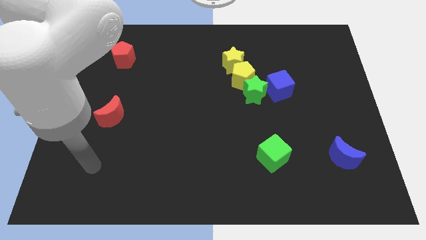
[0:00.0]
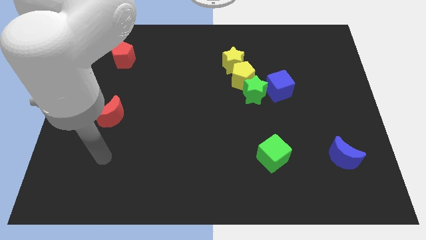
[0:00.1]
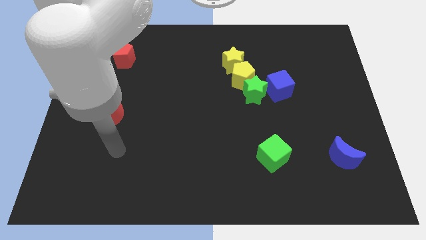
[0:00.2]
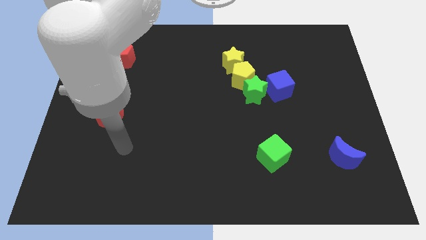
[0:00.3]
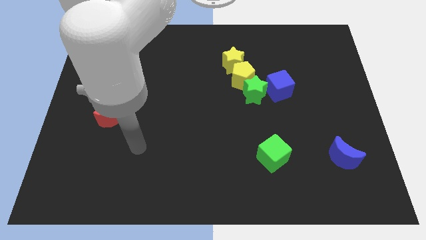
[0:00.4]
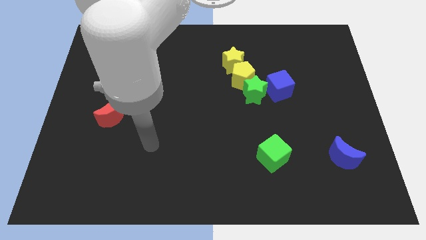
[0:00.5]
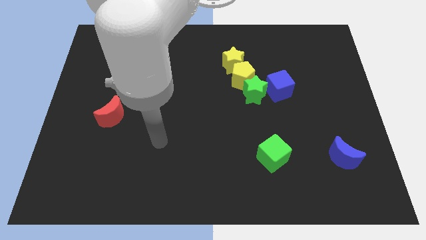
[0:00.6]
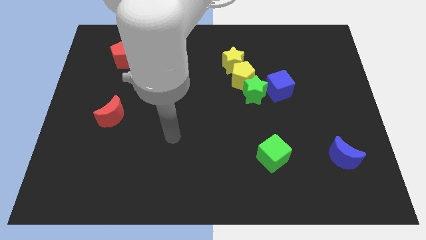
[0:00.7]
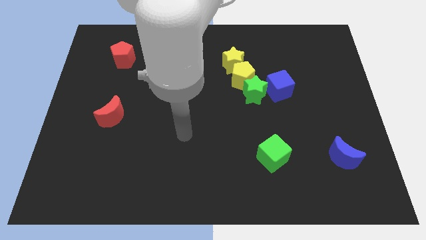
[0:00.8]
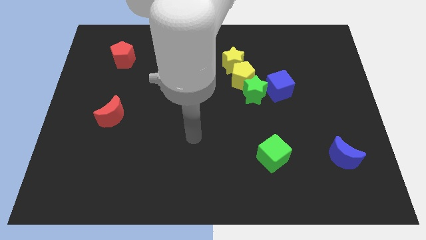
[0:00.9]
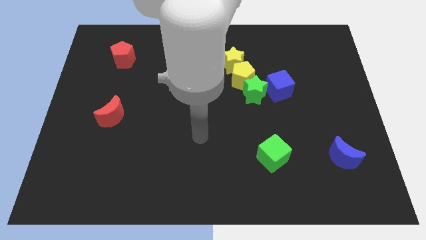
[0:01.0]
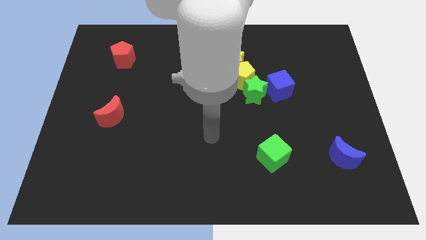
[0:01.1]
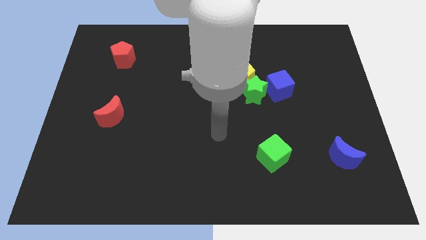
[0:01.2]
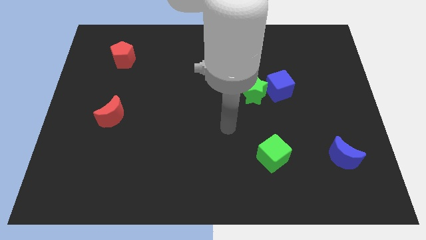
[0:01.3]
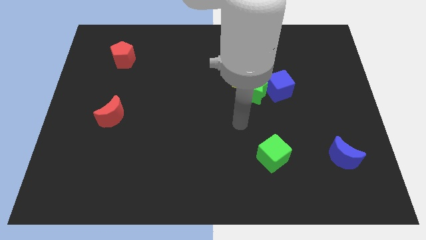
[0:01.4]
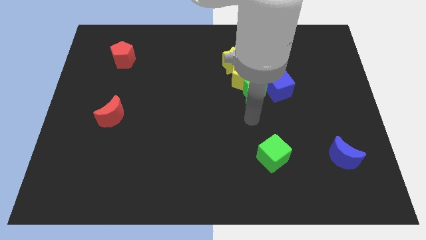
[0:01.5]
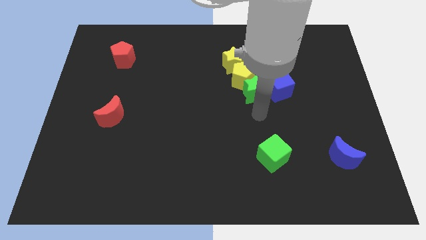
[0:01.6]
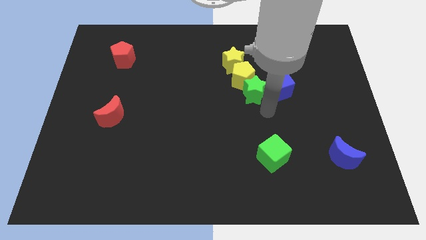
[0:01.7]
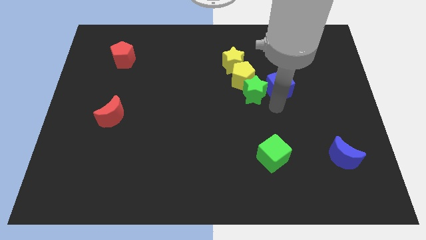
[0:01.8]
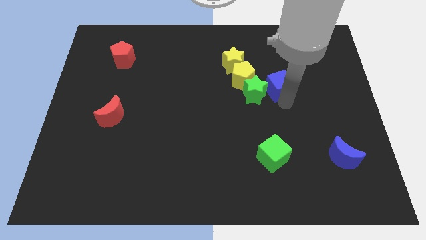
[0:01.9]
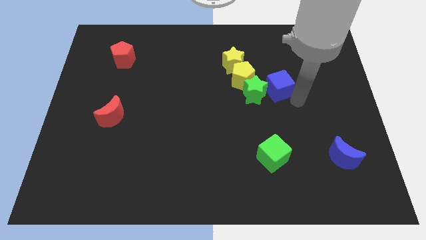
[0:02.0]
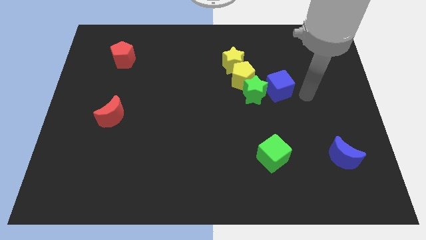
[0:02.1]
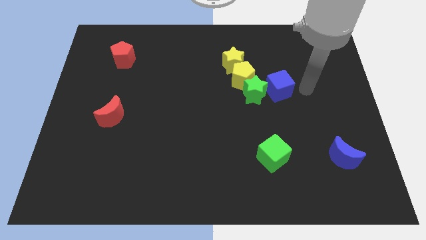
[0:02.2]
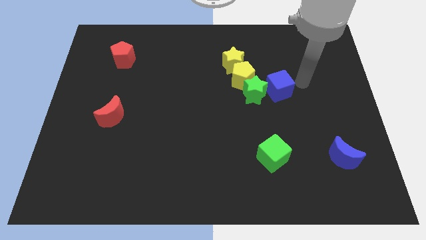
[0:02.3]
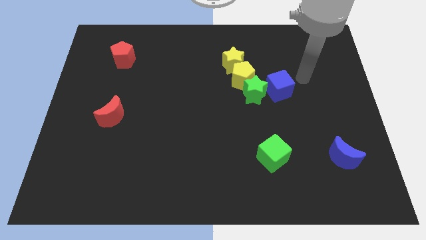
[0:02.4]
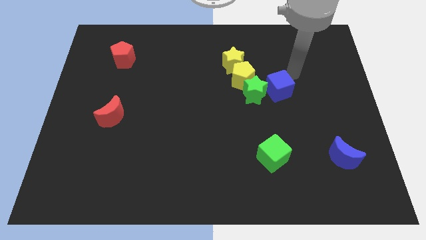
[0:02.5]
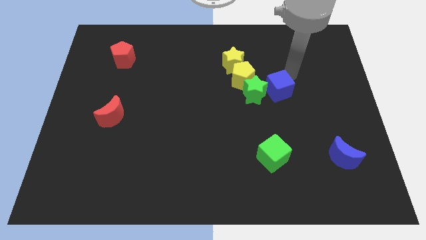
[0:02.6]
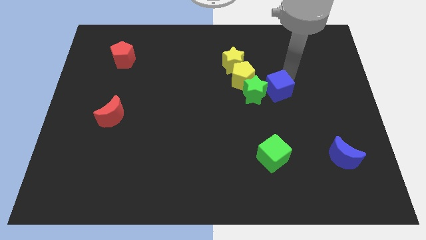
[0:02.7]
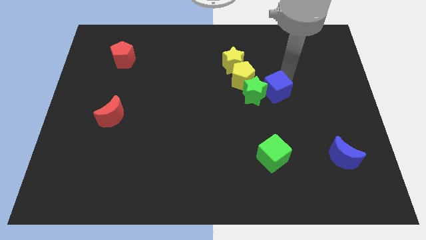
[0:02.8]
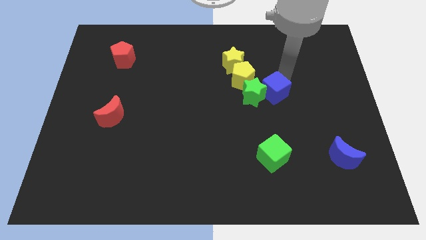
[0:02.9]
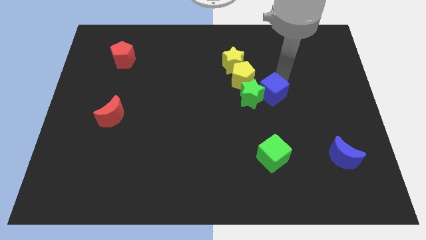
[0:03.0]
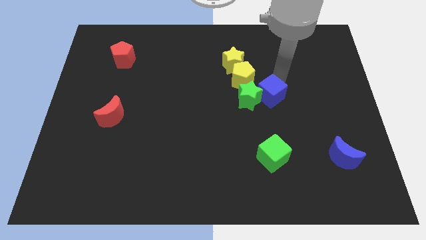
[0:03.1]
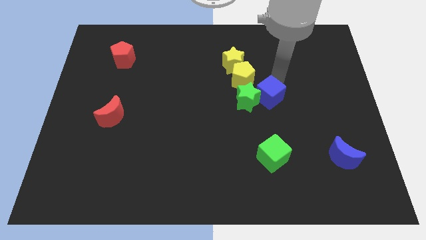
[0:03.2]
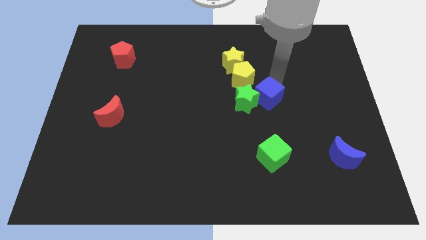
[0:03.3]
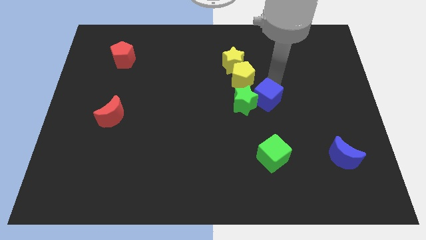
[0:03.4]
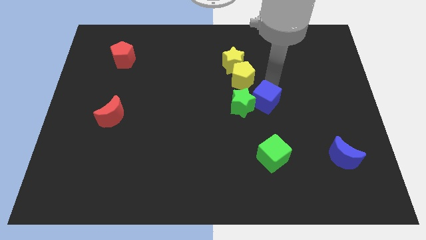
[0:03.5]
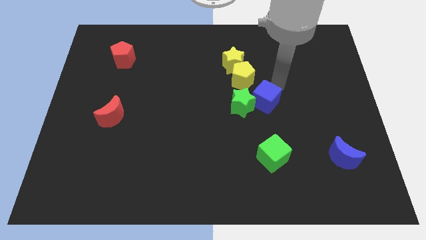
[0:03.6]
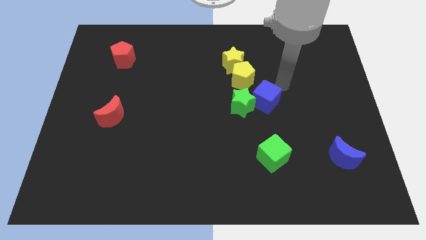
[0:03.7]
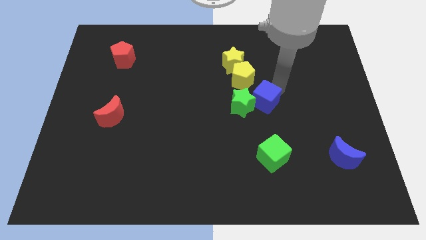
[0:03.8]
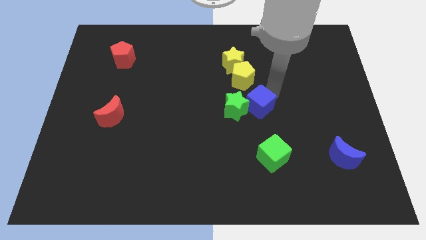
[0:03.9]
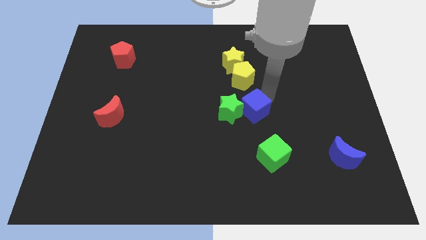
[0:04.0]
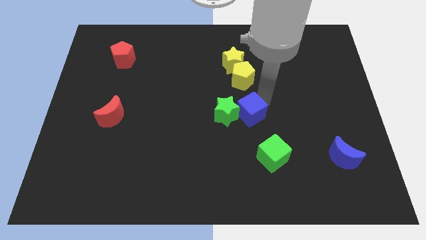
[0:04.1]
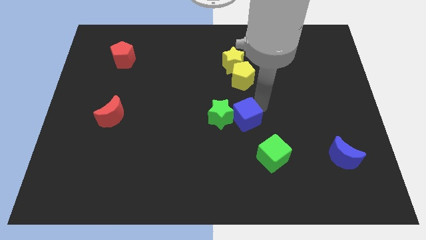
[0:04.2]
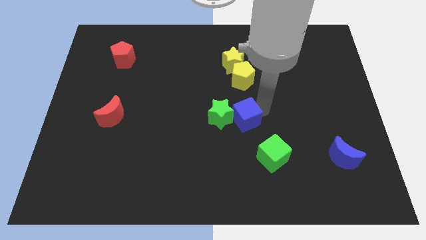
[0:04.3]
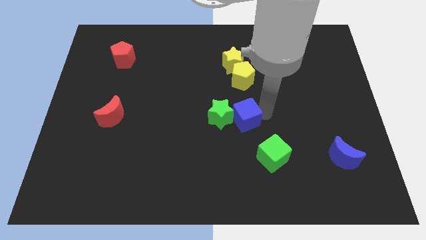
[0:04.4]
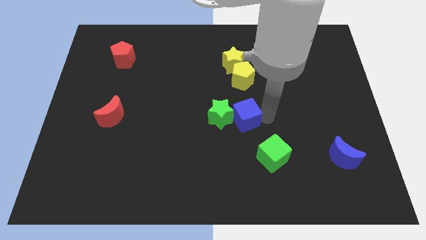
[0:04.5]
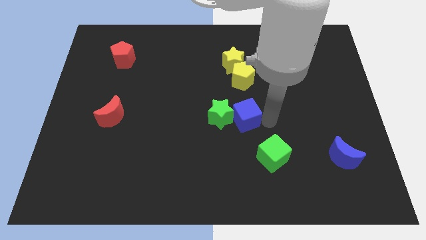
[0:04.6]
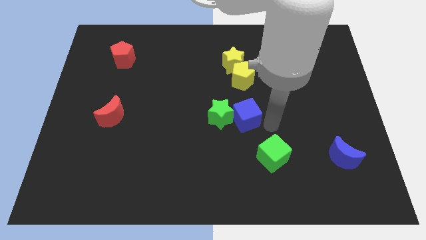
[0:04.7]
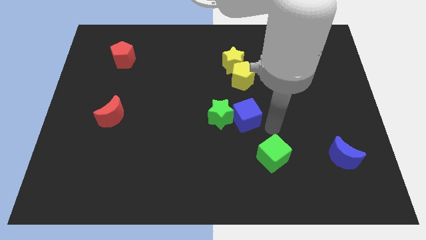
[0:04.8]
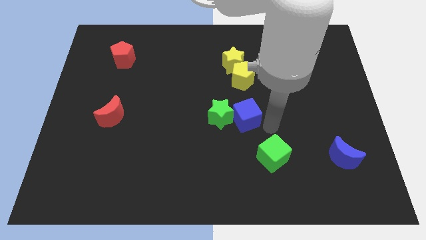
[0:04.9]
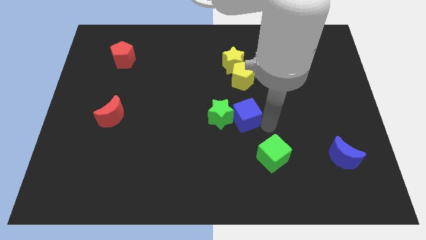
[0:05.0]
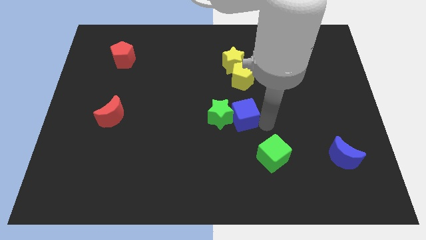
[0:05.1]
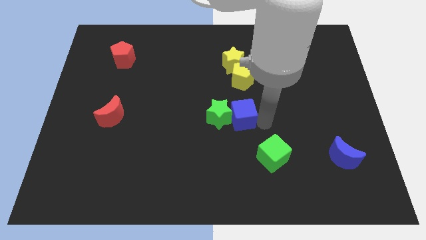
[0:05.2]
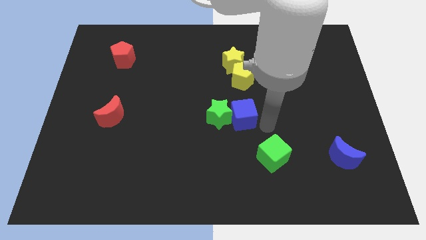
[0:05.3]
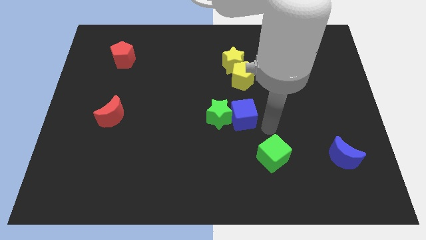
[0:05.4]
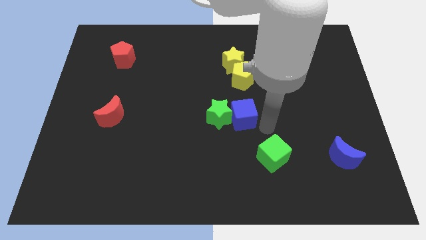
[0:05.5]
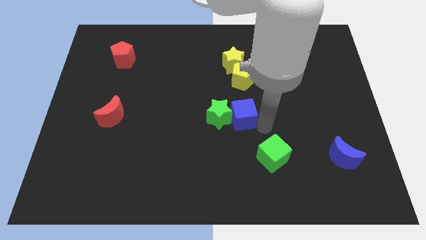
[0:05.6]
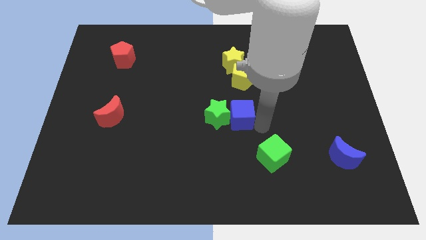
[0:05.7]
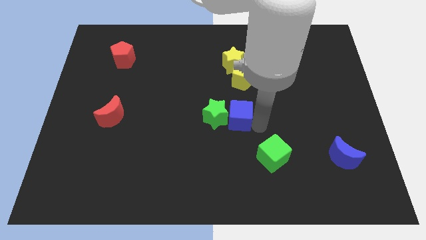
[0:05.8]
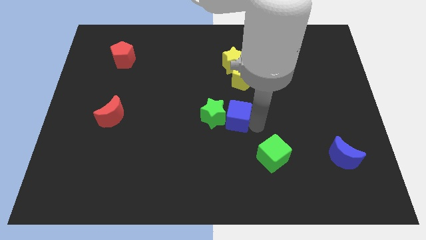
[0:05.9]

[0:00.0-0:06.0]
slightly move the blue cube left

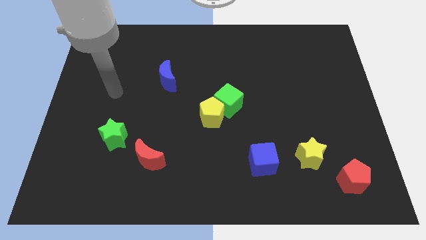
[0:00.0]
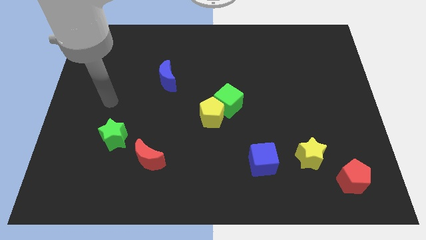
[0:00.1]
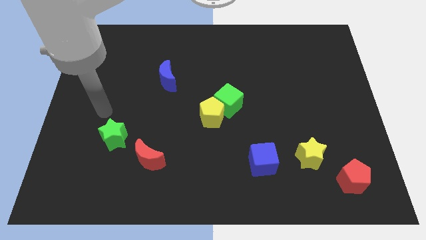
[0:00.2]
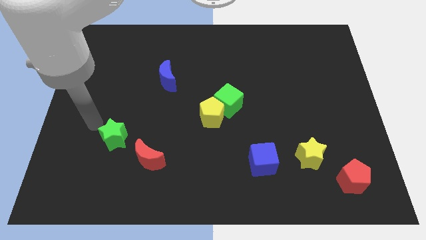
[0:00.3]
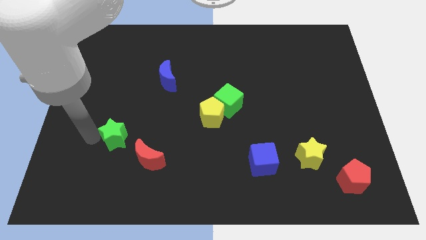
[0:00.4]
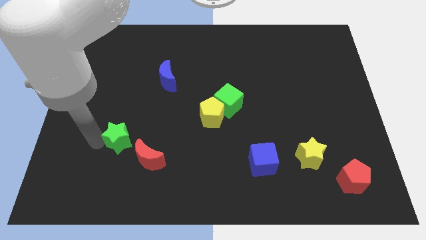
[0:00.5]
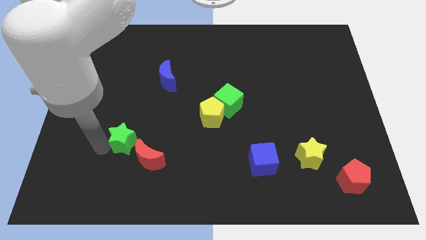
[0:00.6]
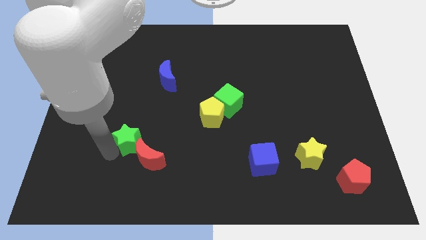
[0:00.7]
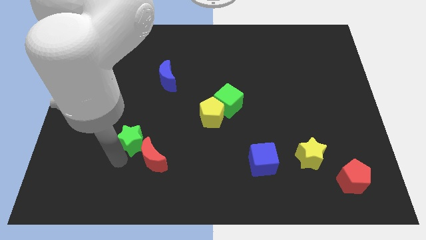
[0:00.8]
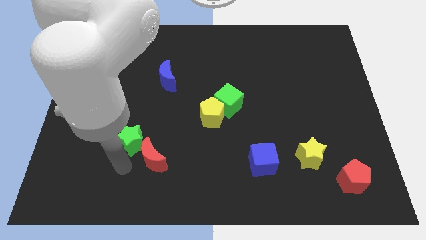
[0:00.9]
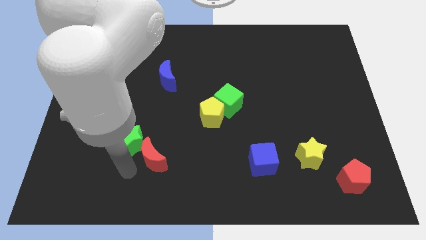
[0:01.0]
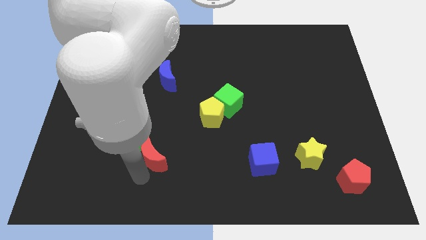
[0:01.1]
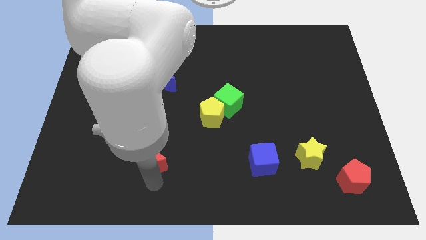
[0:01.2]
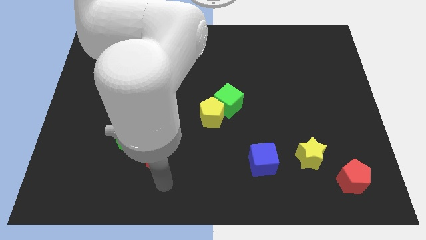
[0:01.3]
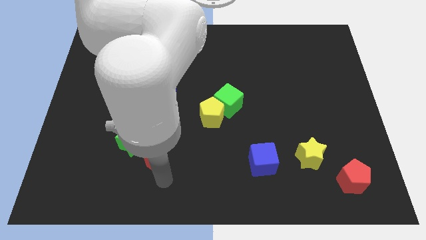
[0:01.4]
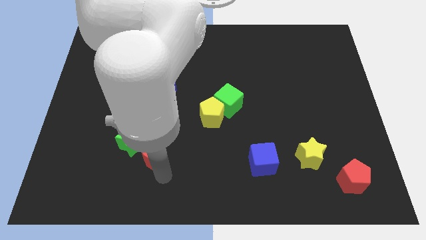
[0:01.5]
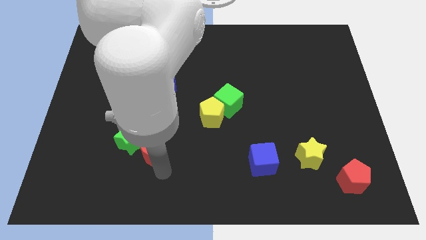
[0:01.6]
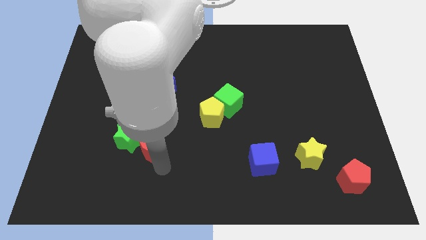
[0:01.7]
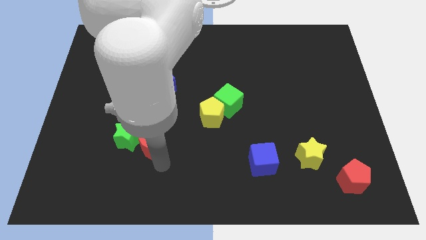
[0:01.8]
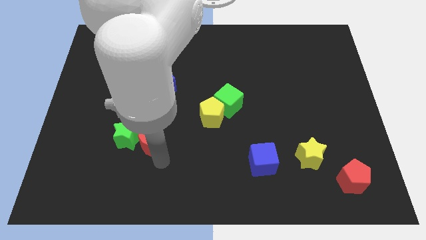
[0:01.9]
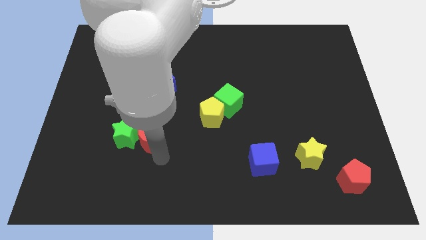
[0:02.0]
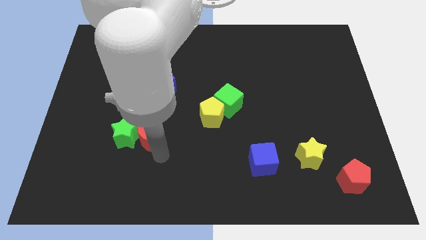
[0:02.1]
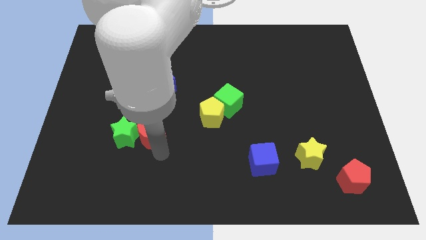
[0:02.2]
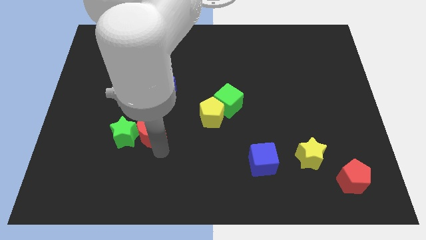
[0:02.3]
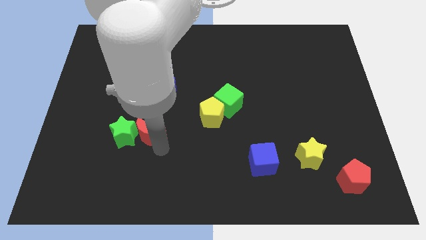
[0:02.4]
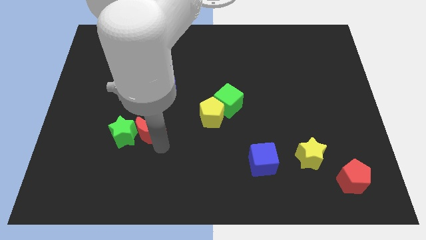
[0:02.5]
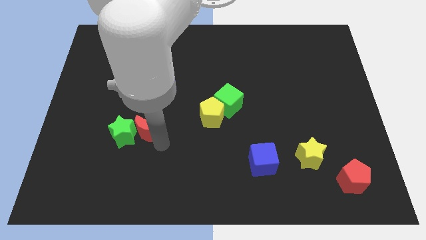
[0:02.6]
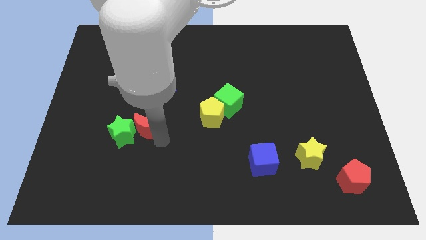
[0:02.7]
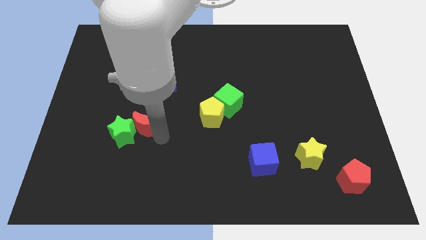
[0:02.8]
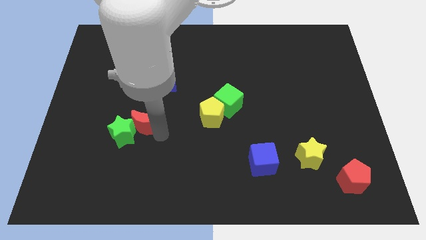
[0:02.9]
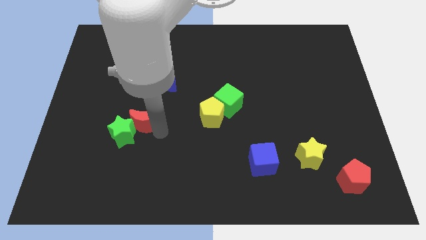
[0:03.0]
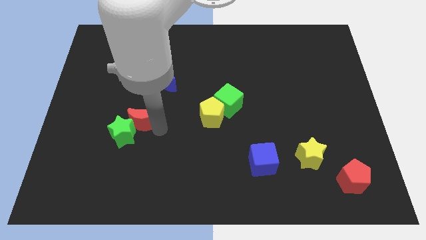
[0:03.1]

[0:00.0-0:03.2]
slightly push the red moon up and to the left diagonally
